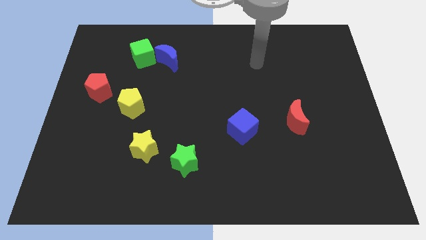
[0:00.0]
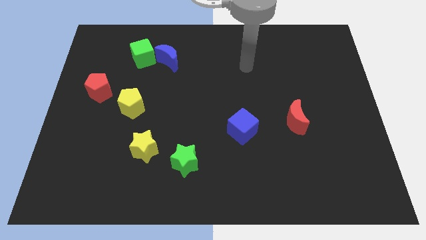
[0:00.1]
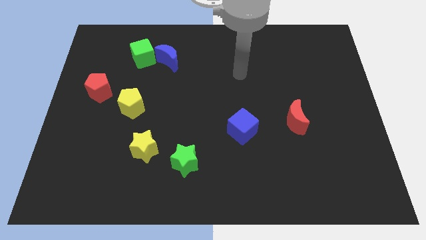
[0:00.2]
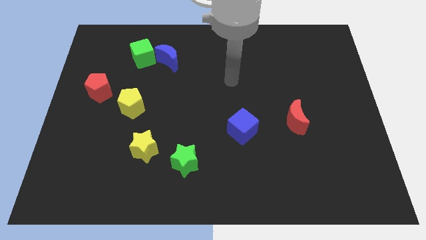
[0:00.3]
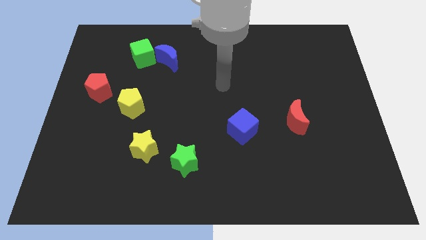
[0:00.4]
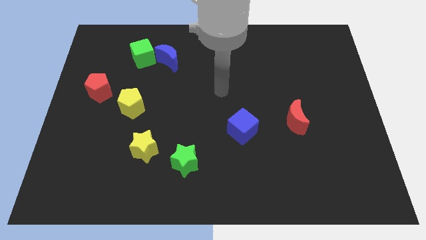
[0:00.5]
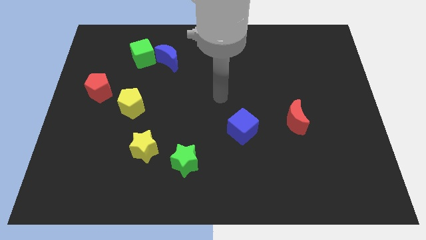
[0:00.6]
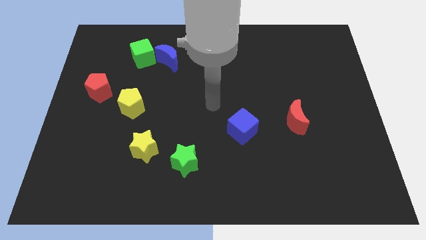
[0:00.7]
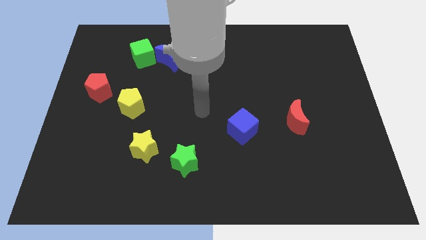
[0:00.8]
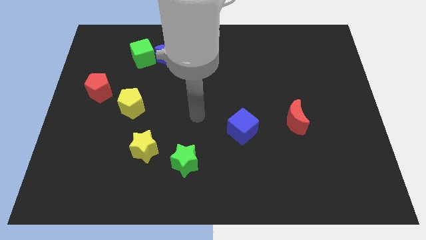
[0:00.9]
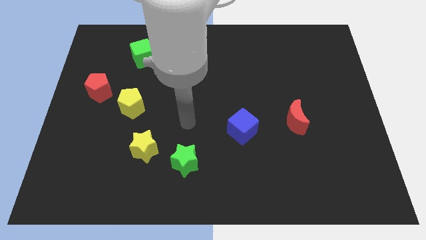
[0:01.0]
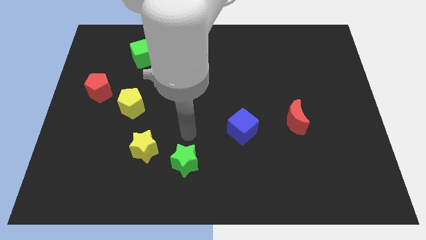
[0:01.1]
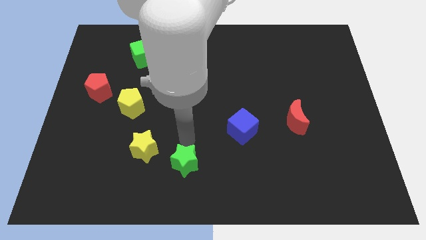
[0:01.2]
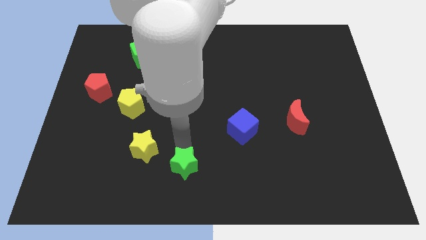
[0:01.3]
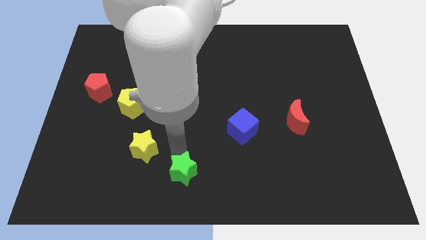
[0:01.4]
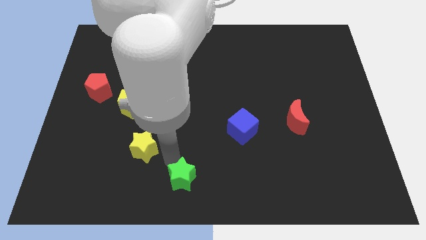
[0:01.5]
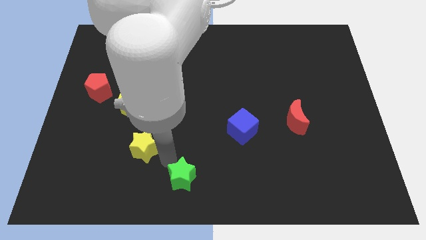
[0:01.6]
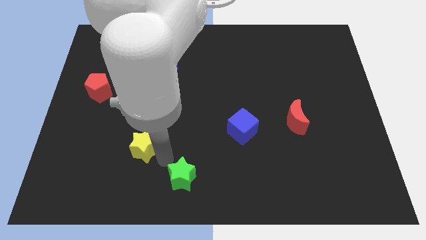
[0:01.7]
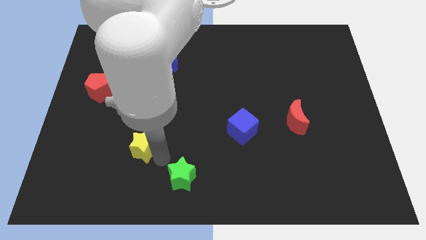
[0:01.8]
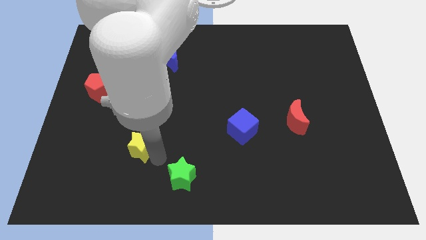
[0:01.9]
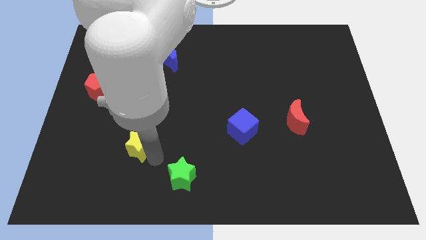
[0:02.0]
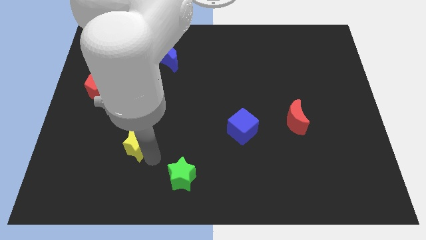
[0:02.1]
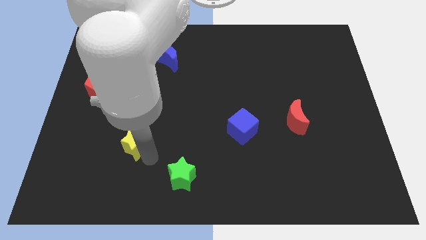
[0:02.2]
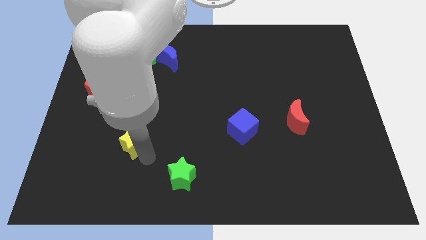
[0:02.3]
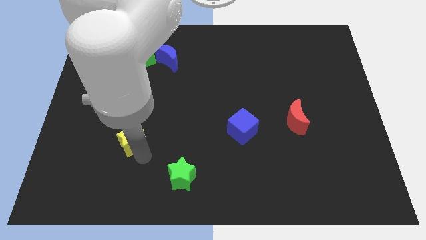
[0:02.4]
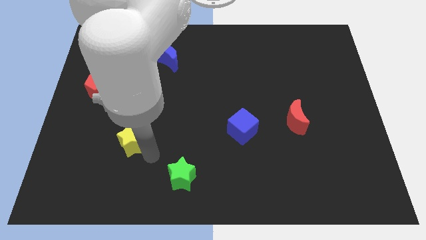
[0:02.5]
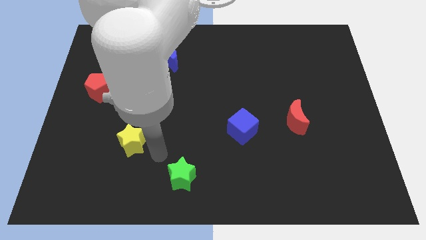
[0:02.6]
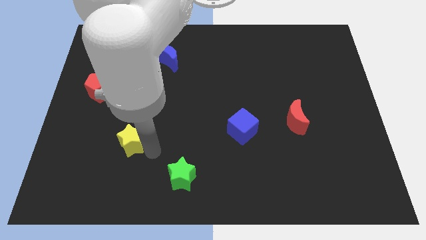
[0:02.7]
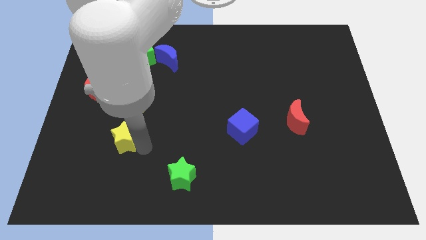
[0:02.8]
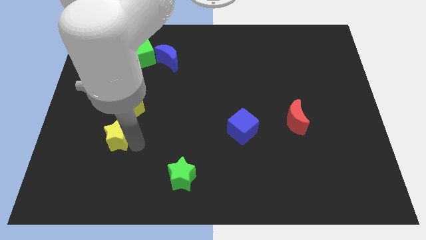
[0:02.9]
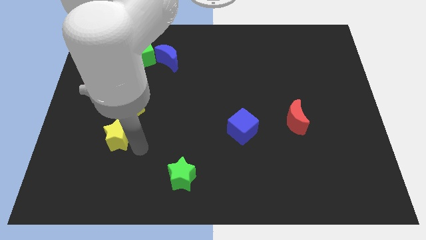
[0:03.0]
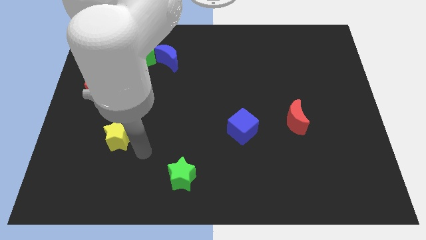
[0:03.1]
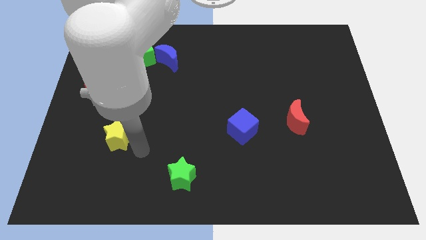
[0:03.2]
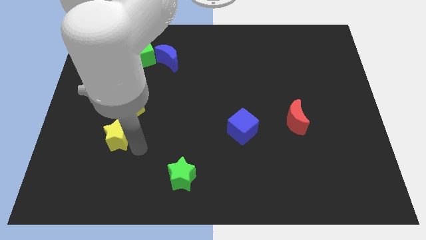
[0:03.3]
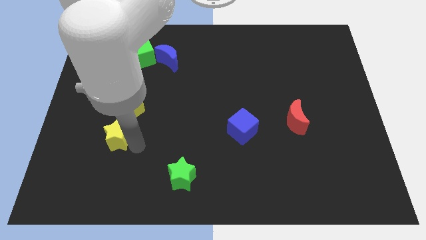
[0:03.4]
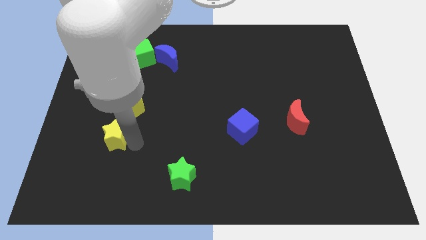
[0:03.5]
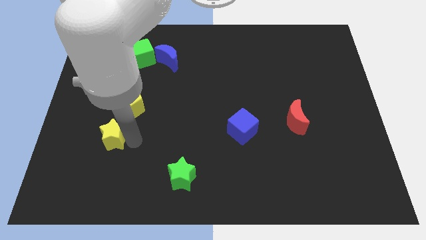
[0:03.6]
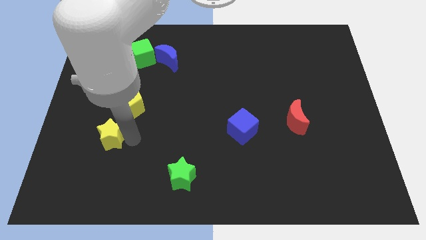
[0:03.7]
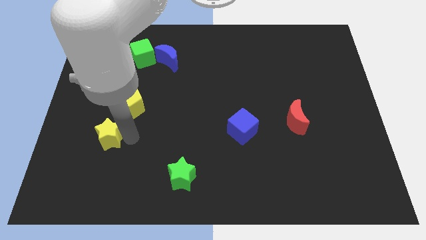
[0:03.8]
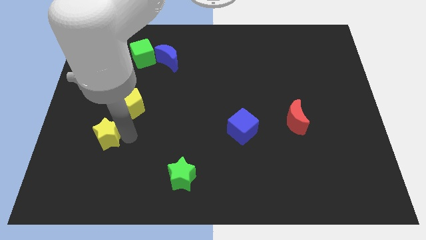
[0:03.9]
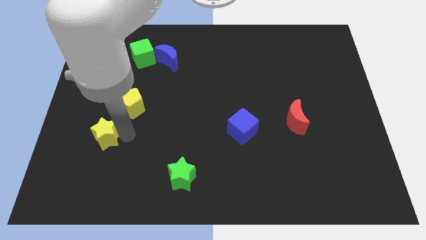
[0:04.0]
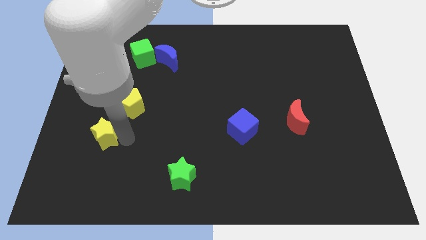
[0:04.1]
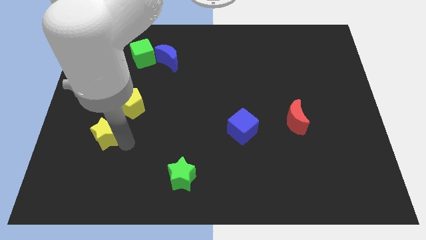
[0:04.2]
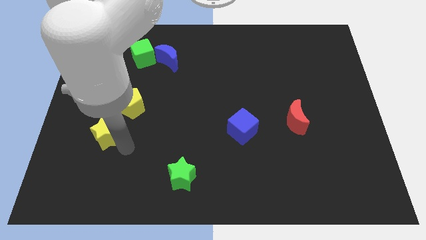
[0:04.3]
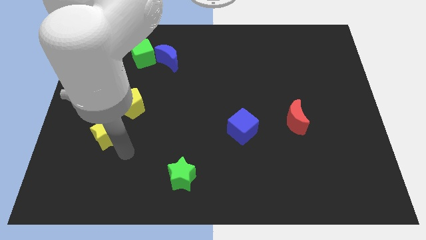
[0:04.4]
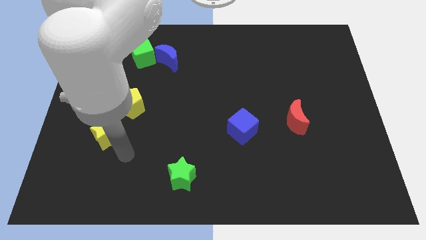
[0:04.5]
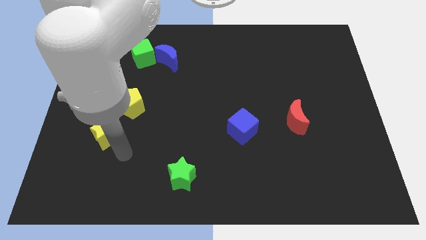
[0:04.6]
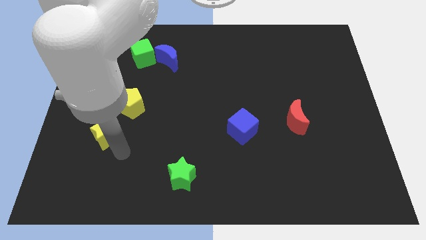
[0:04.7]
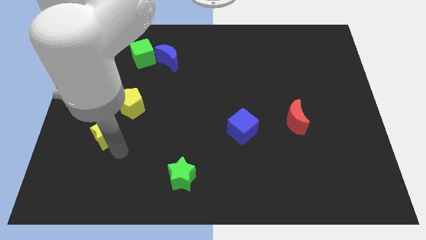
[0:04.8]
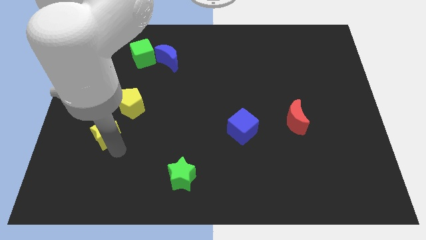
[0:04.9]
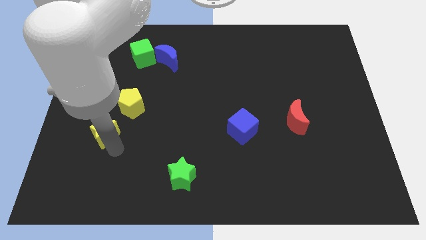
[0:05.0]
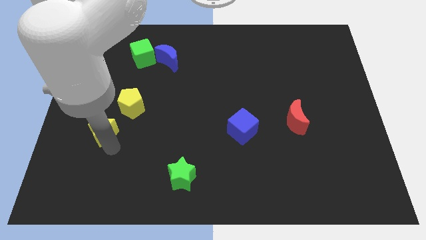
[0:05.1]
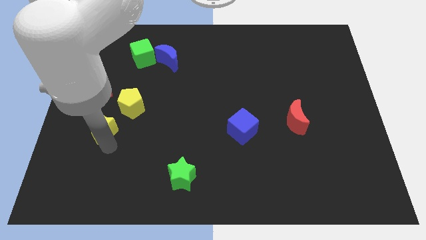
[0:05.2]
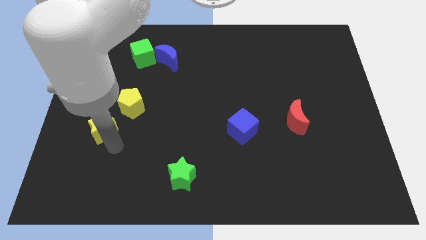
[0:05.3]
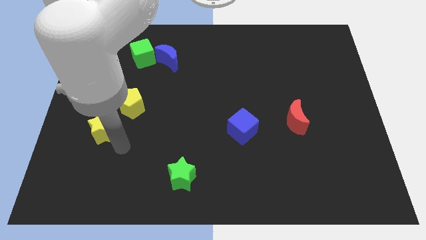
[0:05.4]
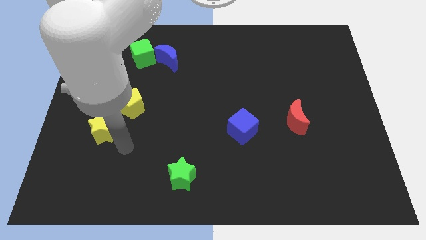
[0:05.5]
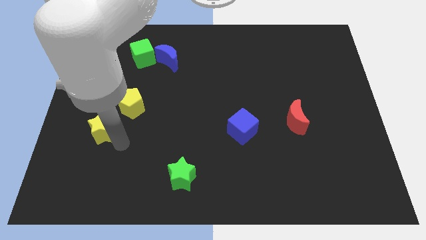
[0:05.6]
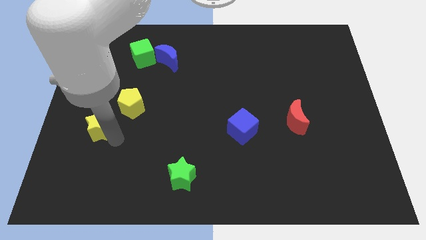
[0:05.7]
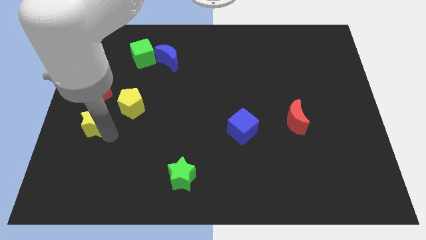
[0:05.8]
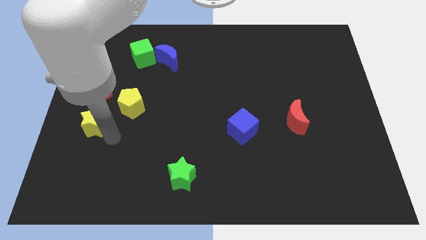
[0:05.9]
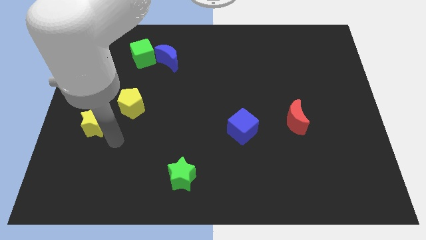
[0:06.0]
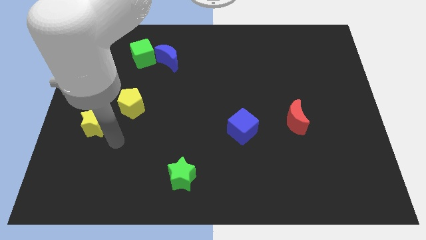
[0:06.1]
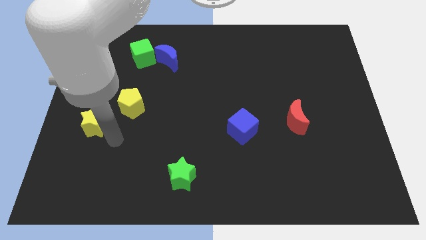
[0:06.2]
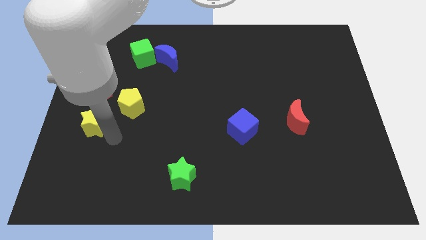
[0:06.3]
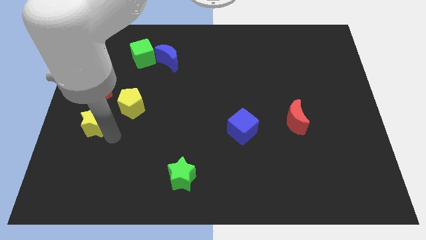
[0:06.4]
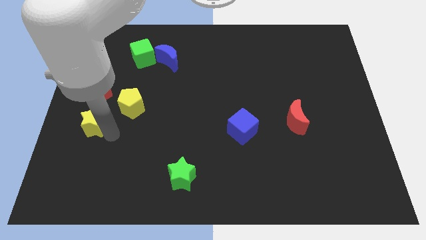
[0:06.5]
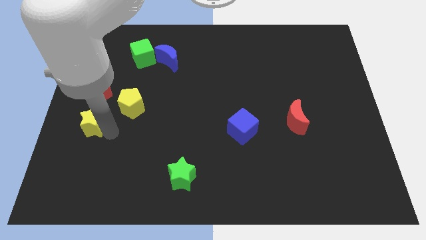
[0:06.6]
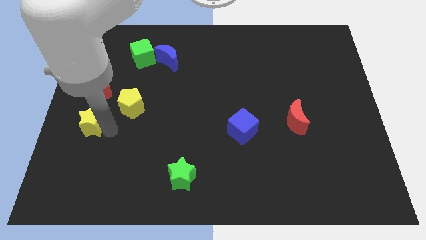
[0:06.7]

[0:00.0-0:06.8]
move the yellow star to the center left
